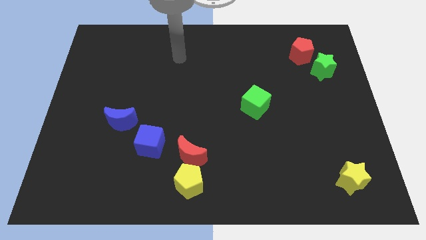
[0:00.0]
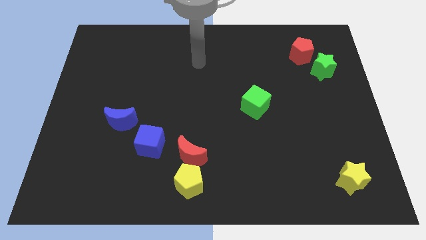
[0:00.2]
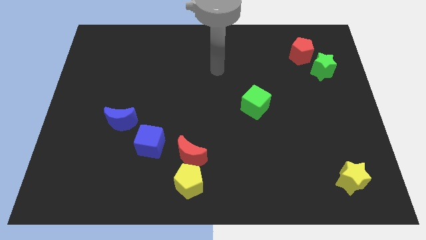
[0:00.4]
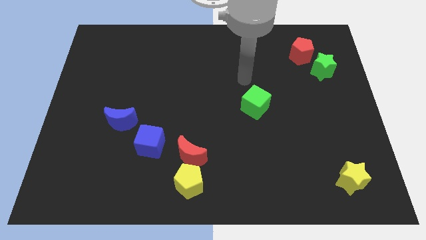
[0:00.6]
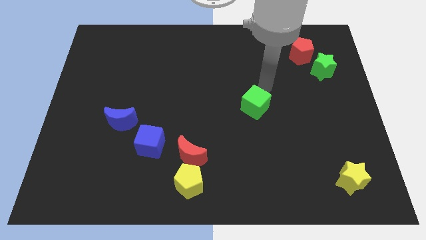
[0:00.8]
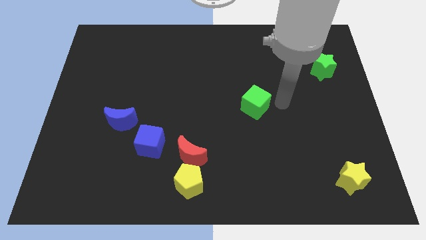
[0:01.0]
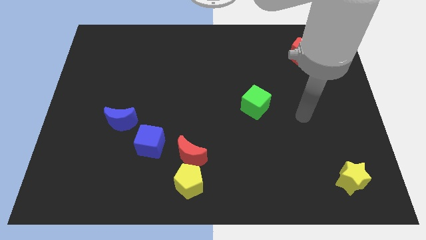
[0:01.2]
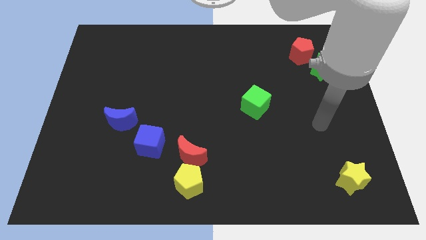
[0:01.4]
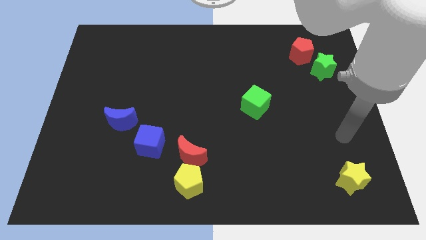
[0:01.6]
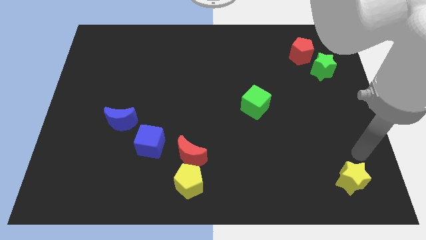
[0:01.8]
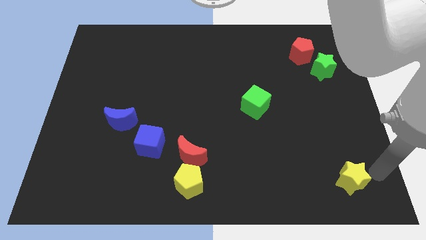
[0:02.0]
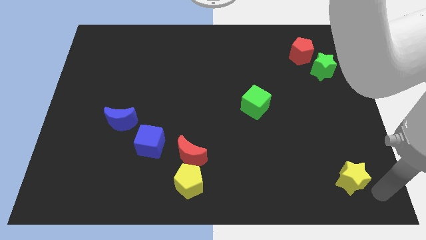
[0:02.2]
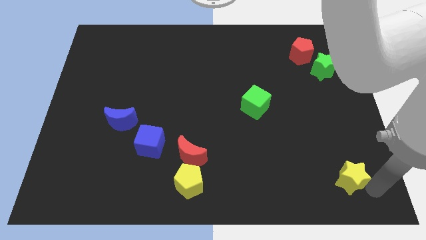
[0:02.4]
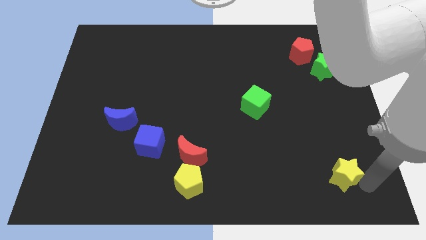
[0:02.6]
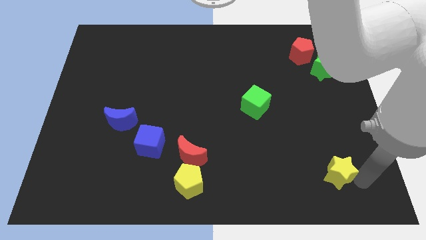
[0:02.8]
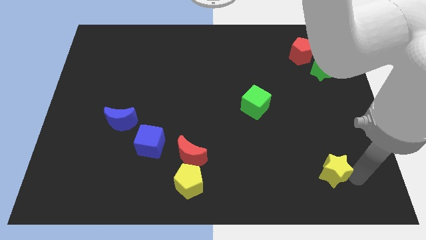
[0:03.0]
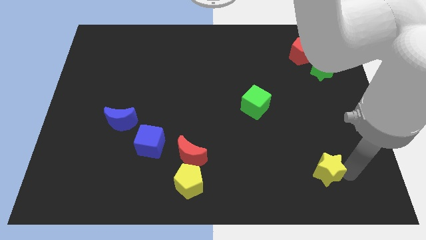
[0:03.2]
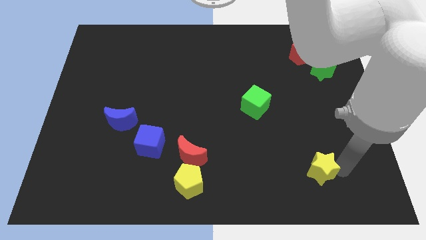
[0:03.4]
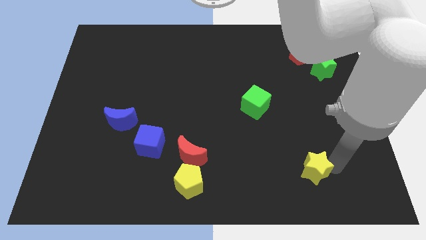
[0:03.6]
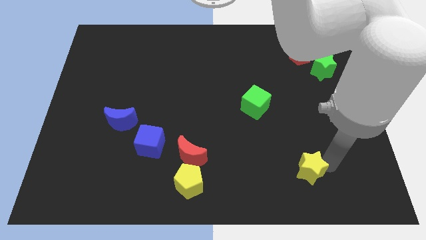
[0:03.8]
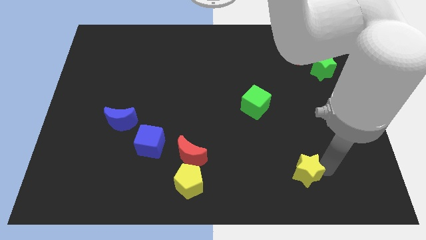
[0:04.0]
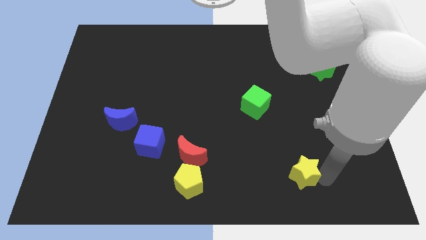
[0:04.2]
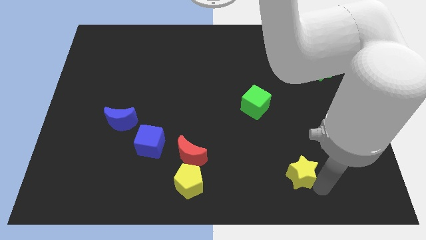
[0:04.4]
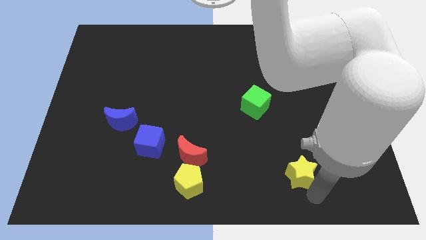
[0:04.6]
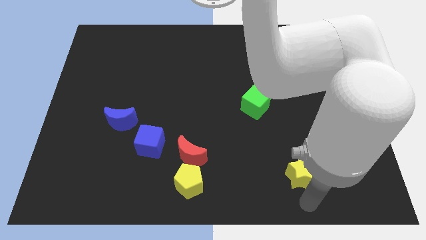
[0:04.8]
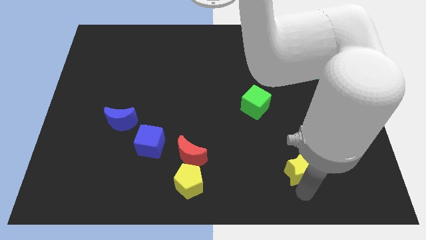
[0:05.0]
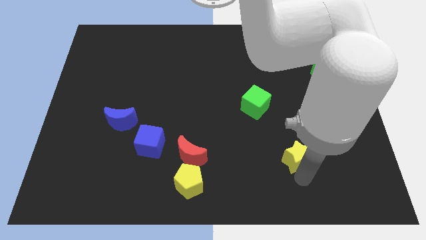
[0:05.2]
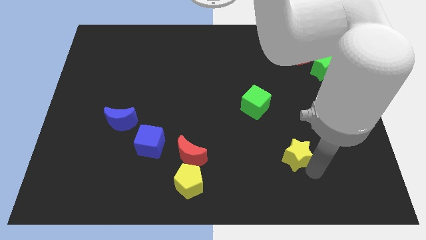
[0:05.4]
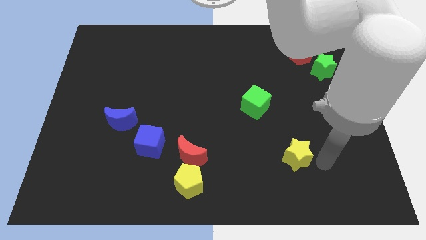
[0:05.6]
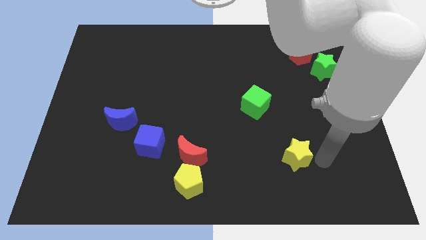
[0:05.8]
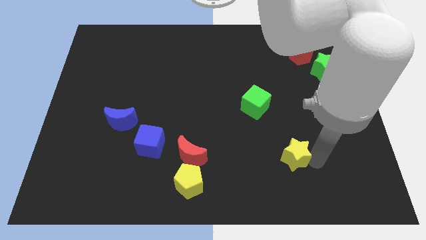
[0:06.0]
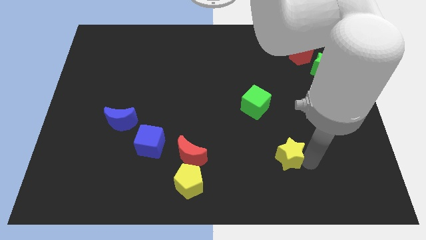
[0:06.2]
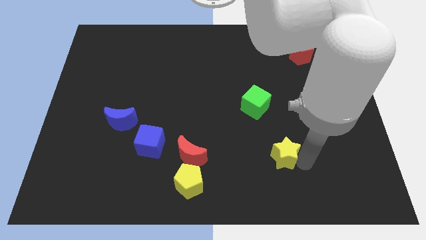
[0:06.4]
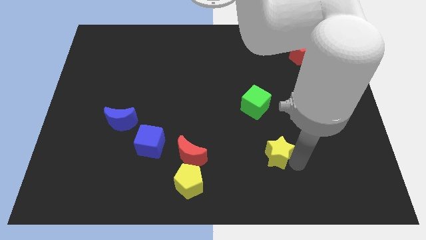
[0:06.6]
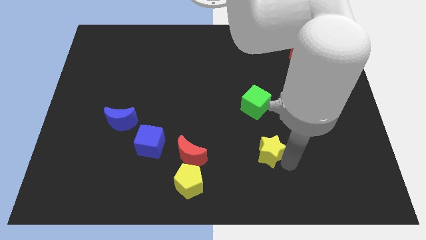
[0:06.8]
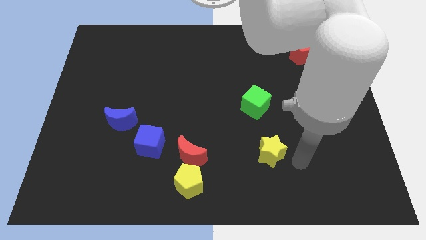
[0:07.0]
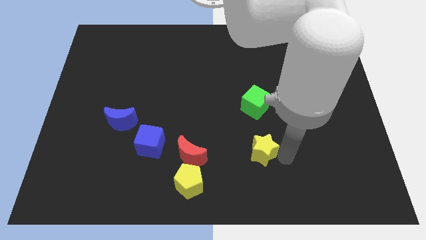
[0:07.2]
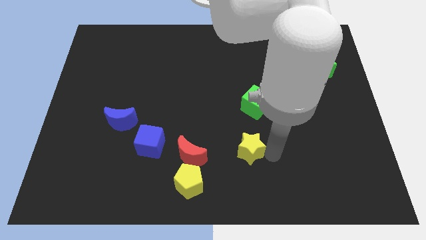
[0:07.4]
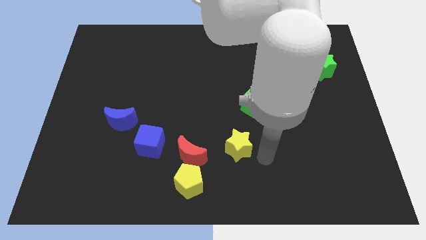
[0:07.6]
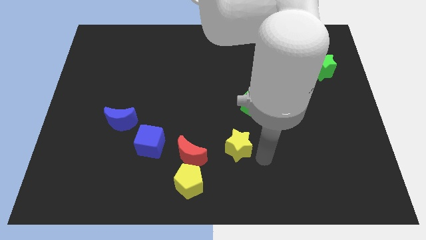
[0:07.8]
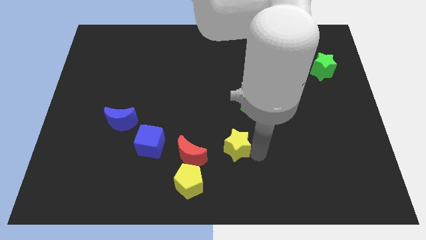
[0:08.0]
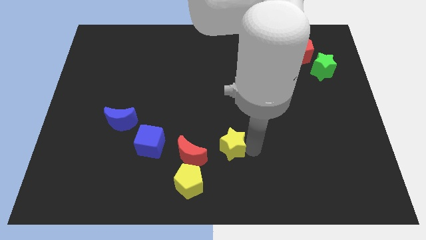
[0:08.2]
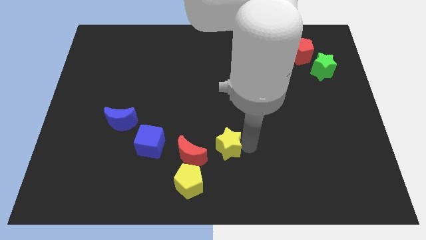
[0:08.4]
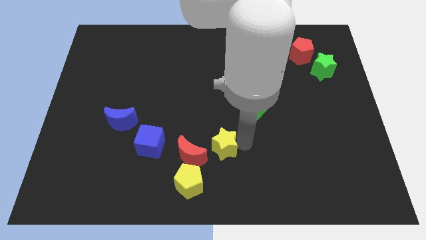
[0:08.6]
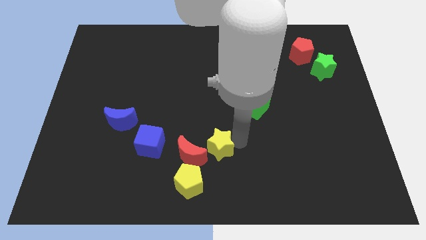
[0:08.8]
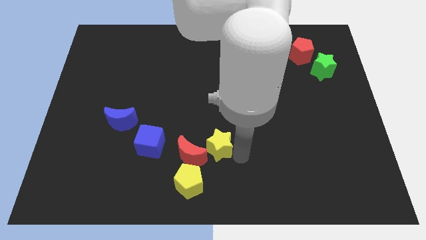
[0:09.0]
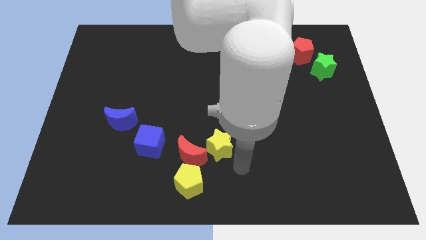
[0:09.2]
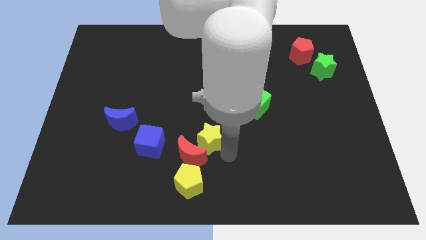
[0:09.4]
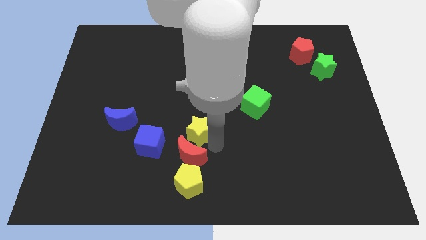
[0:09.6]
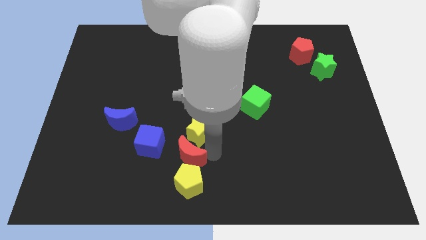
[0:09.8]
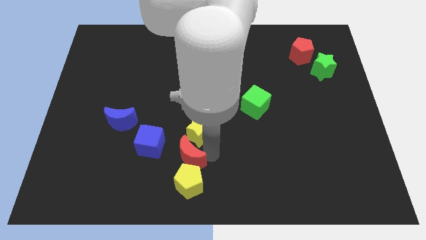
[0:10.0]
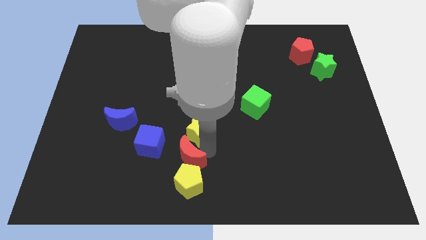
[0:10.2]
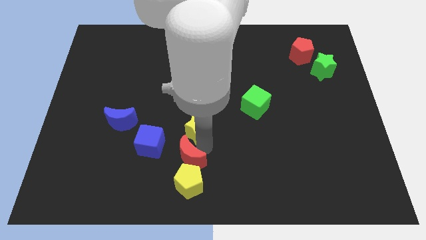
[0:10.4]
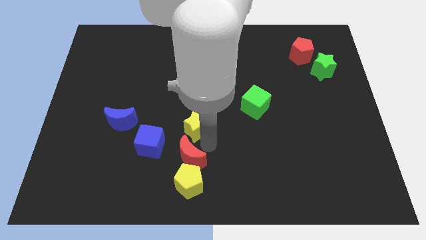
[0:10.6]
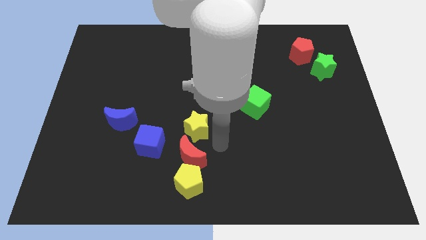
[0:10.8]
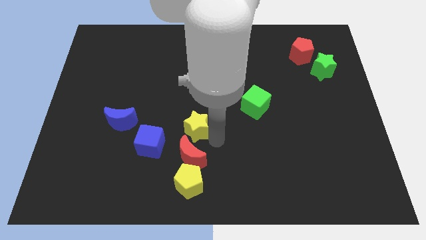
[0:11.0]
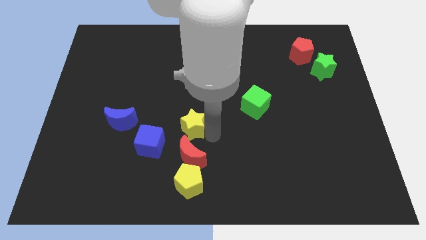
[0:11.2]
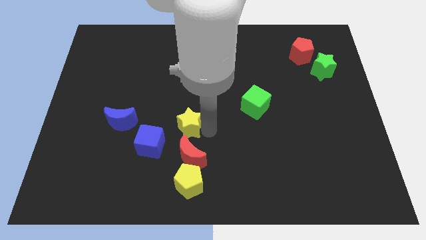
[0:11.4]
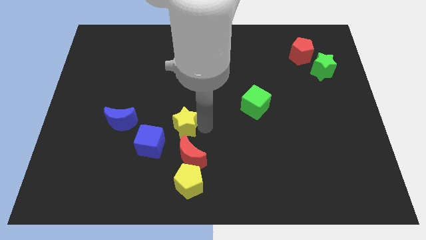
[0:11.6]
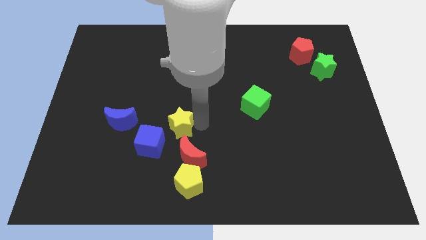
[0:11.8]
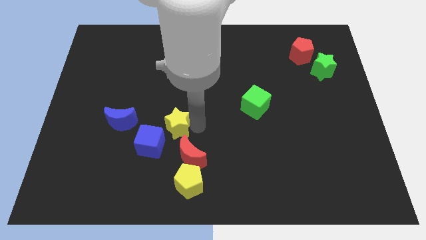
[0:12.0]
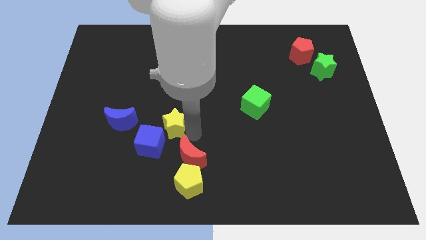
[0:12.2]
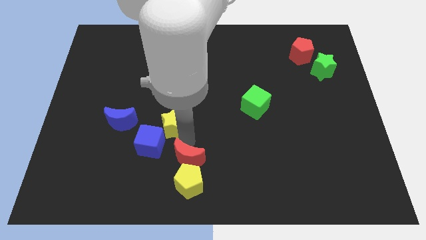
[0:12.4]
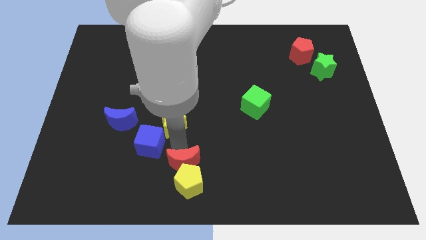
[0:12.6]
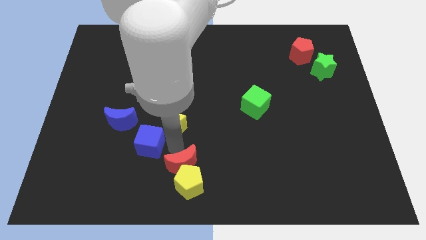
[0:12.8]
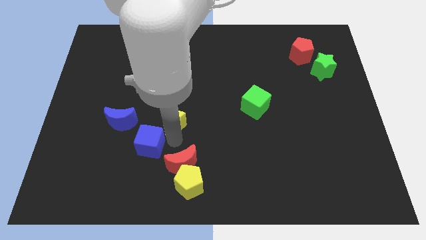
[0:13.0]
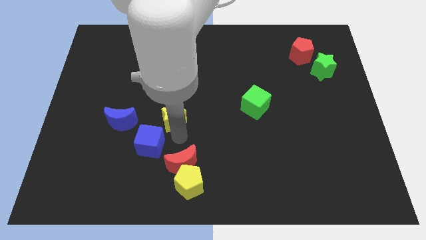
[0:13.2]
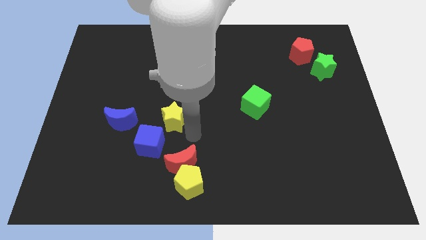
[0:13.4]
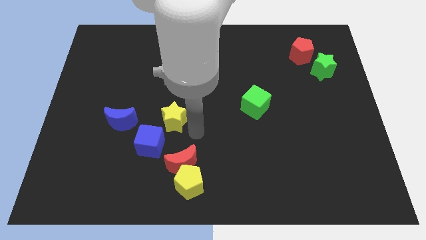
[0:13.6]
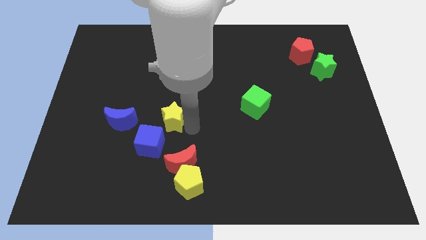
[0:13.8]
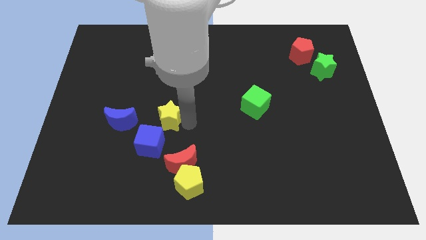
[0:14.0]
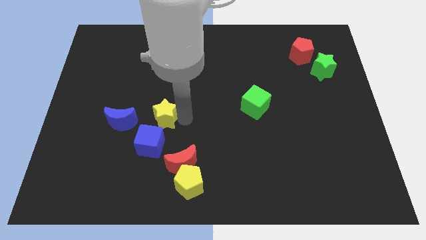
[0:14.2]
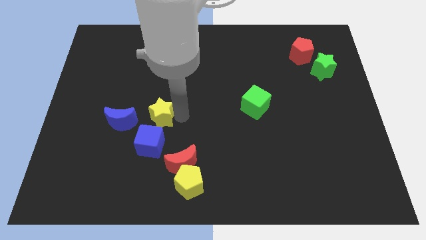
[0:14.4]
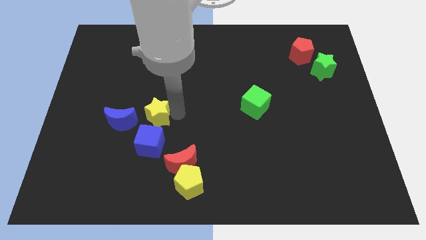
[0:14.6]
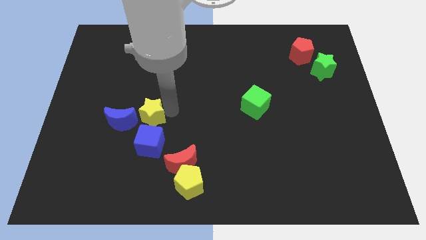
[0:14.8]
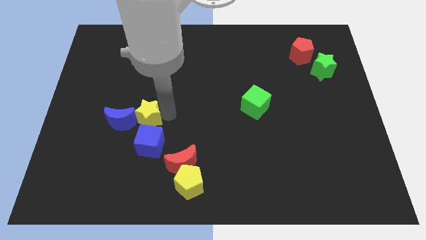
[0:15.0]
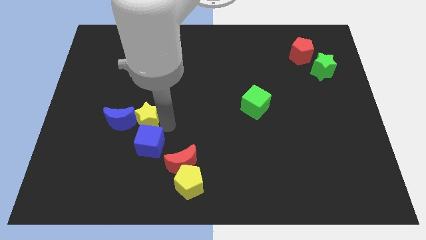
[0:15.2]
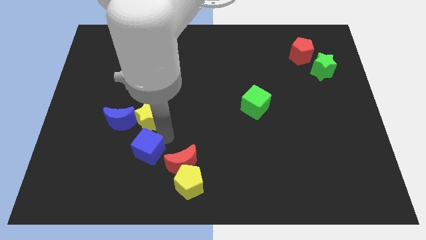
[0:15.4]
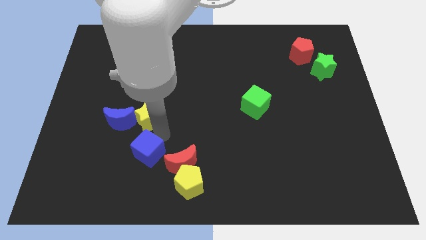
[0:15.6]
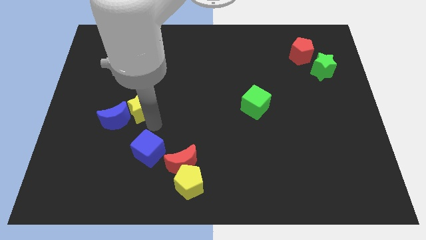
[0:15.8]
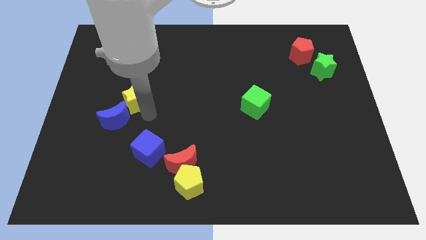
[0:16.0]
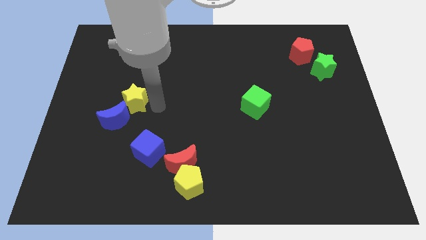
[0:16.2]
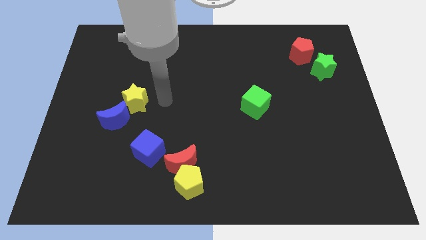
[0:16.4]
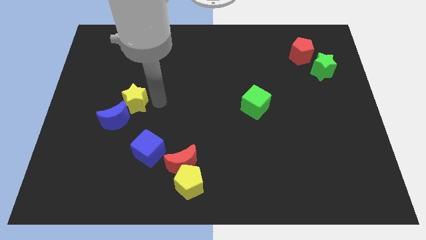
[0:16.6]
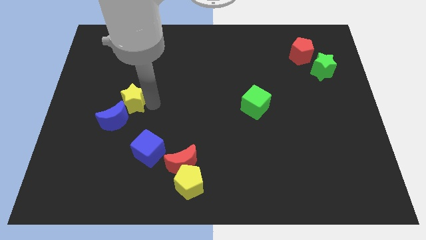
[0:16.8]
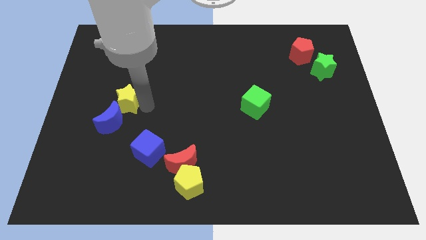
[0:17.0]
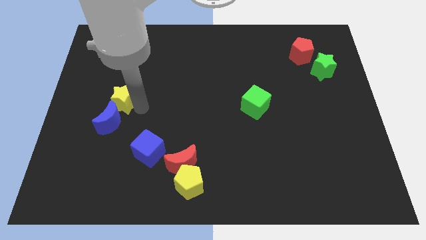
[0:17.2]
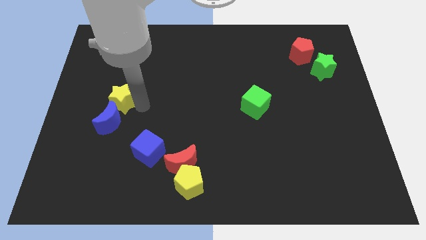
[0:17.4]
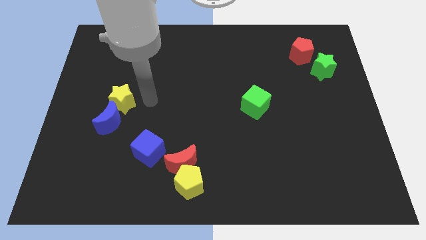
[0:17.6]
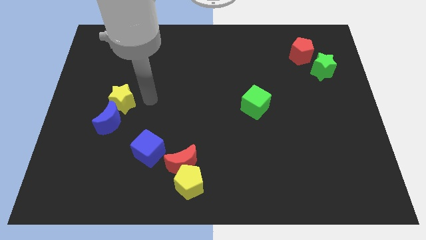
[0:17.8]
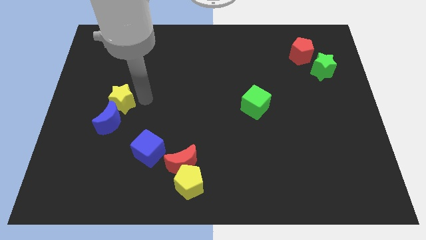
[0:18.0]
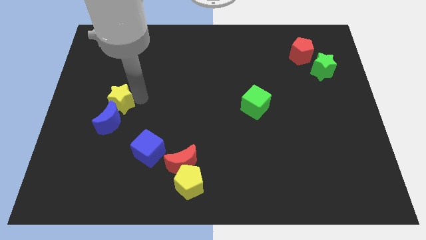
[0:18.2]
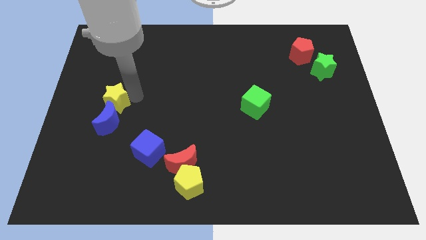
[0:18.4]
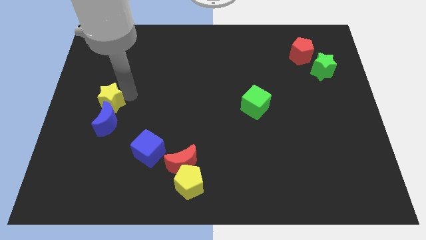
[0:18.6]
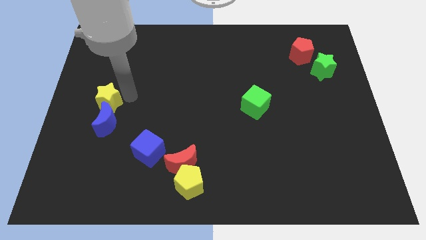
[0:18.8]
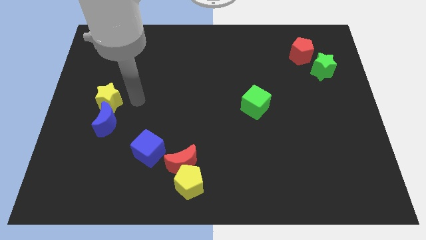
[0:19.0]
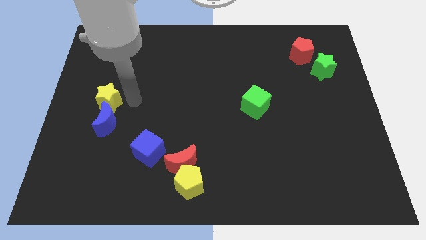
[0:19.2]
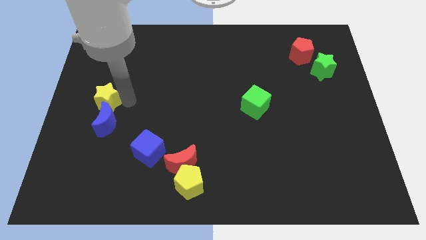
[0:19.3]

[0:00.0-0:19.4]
slide the yellow star to the left side
